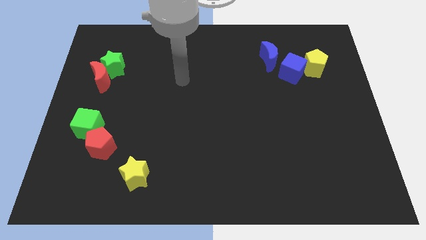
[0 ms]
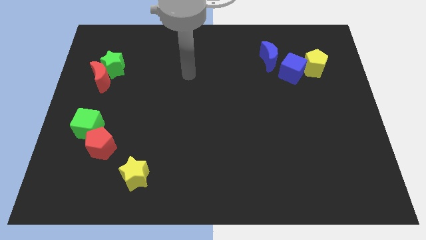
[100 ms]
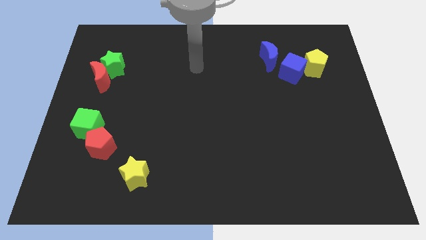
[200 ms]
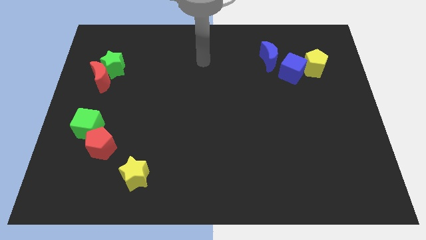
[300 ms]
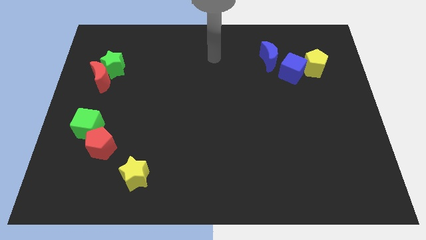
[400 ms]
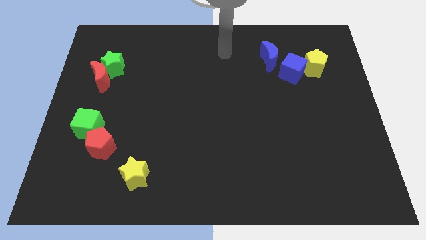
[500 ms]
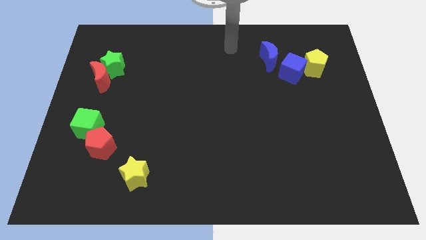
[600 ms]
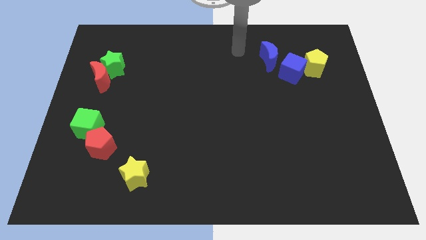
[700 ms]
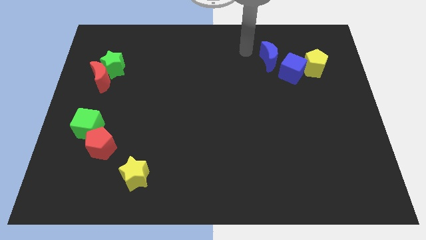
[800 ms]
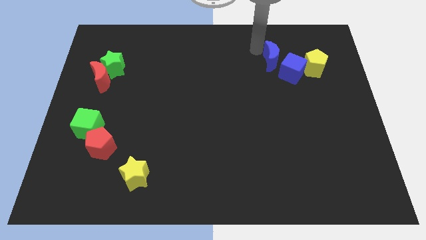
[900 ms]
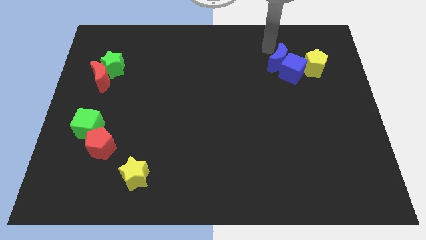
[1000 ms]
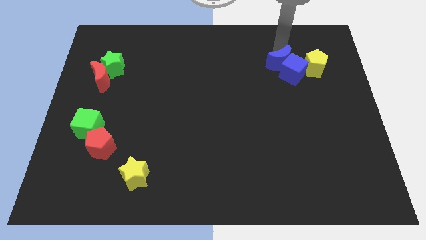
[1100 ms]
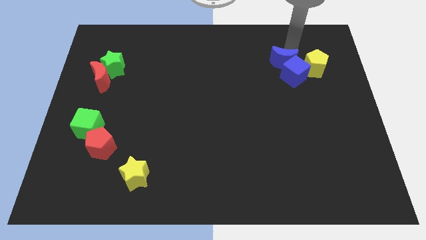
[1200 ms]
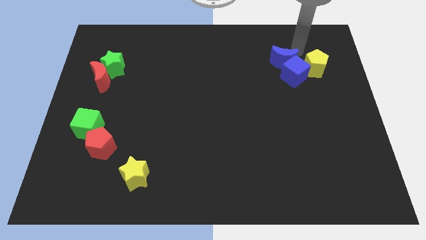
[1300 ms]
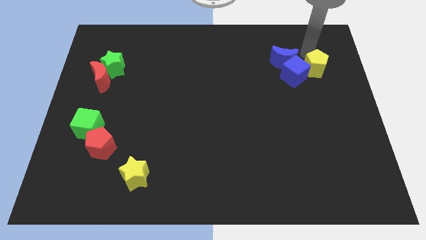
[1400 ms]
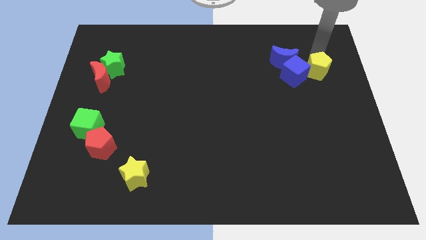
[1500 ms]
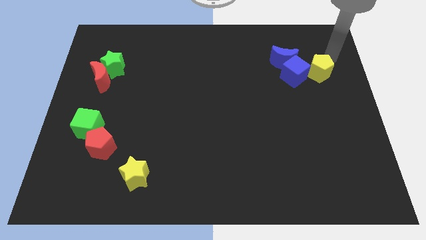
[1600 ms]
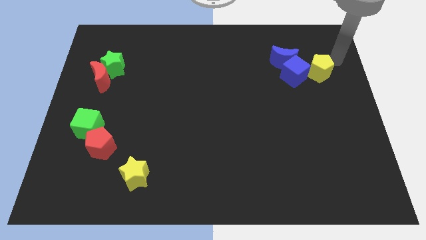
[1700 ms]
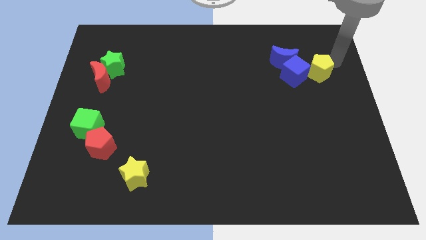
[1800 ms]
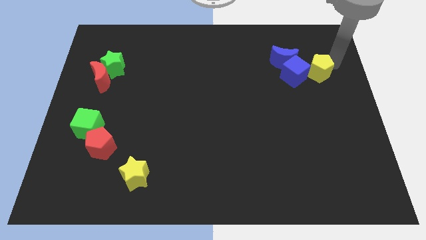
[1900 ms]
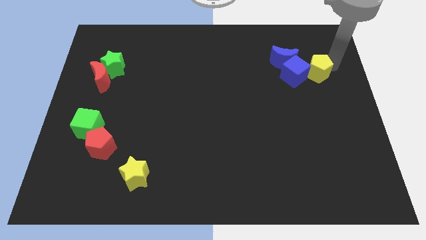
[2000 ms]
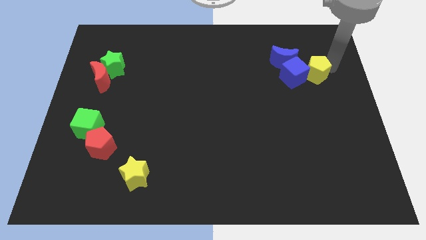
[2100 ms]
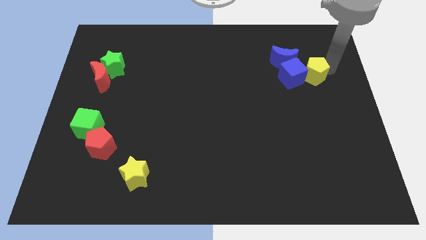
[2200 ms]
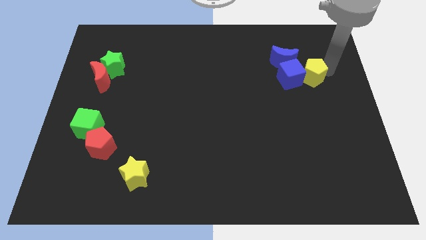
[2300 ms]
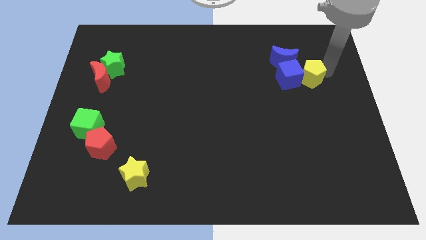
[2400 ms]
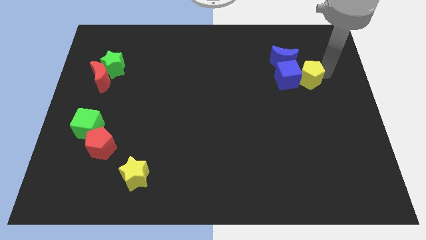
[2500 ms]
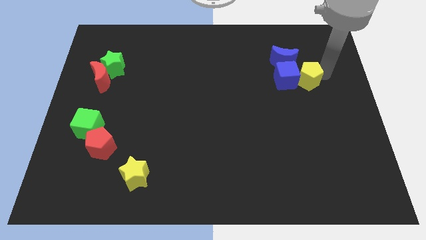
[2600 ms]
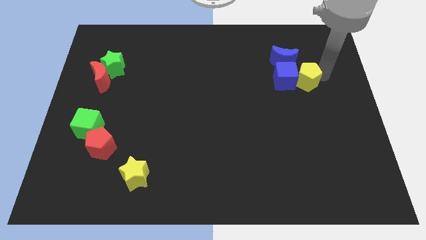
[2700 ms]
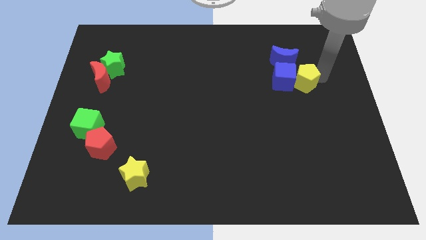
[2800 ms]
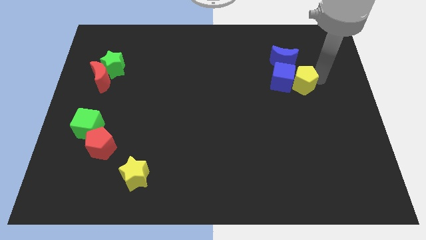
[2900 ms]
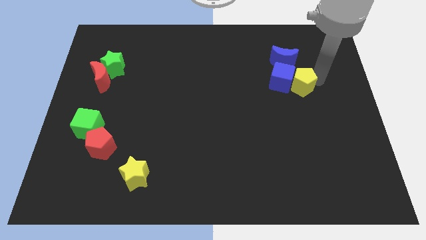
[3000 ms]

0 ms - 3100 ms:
push the yellow pentagon downwards and left slightly

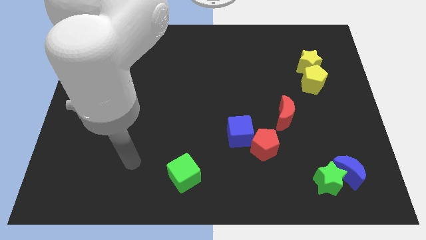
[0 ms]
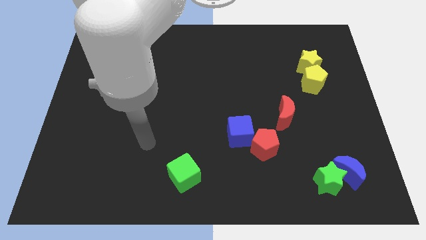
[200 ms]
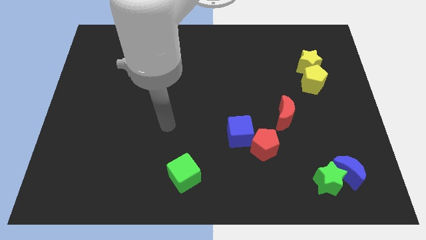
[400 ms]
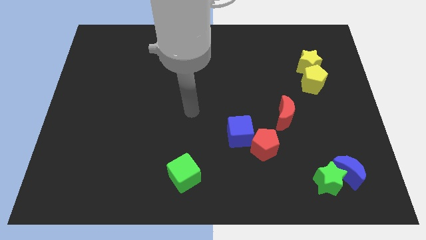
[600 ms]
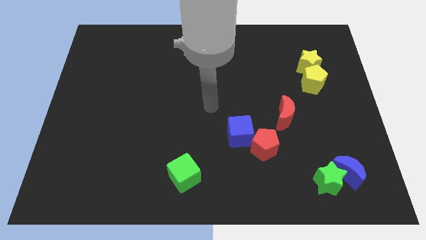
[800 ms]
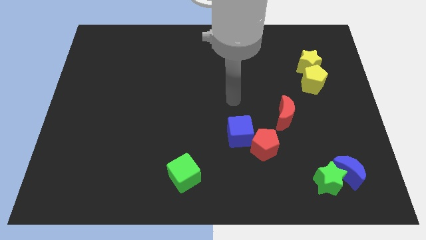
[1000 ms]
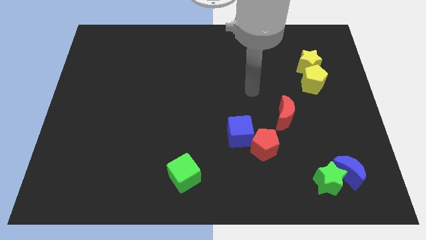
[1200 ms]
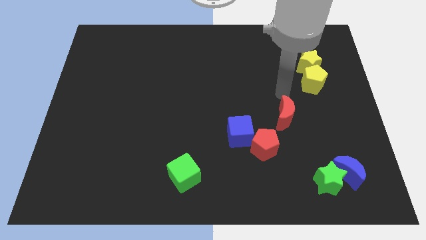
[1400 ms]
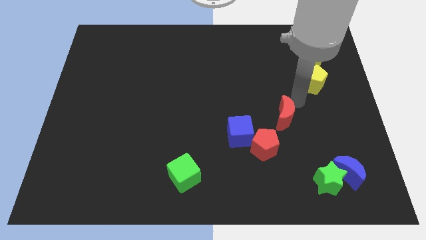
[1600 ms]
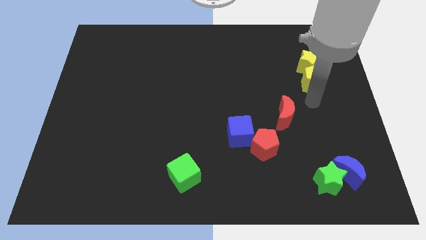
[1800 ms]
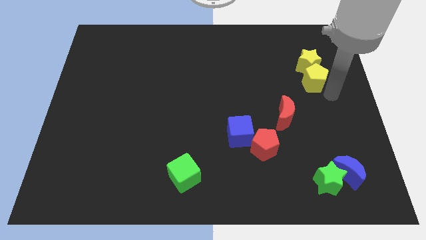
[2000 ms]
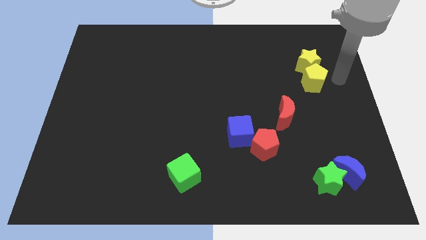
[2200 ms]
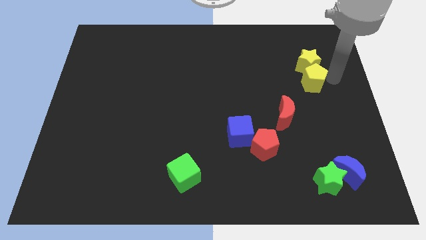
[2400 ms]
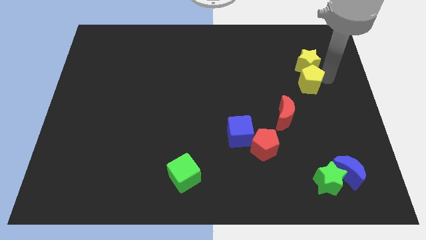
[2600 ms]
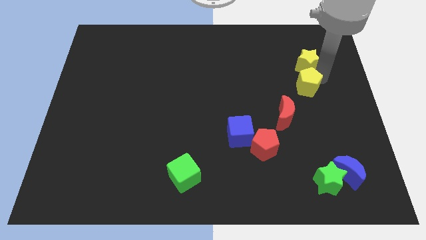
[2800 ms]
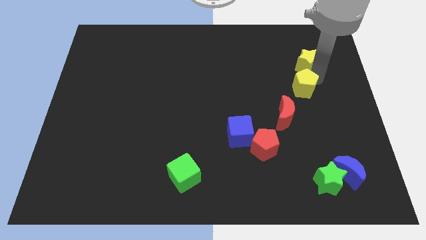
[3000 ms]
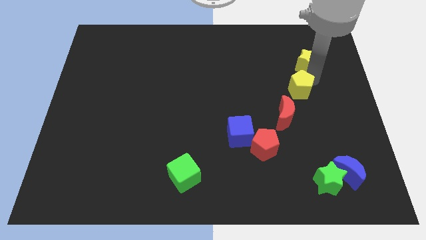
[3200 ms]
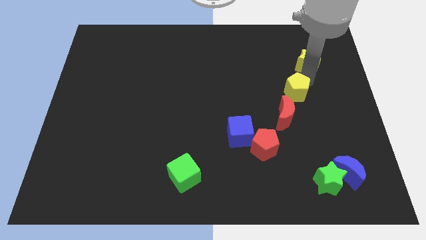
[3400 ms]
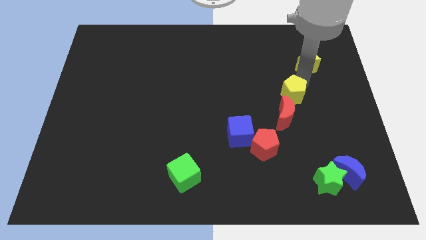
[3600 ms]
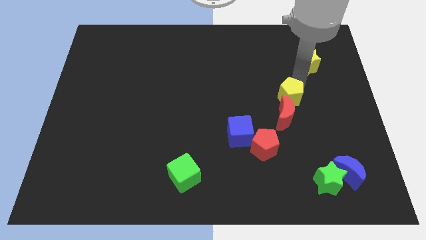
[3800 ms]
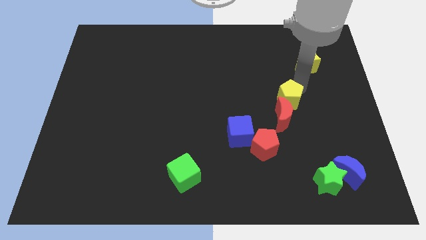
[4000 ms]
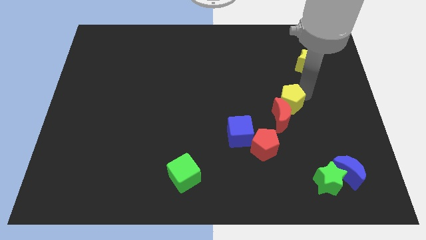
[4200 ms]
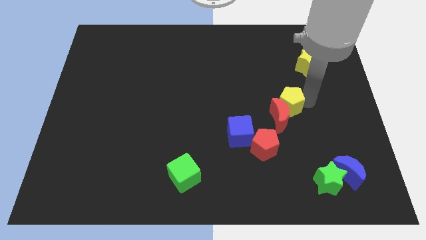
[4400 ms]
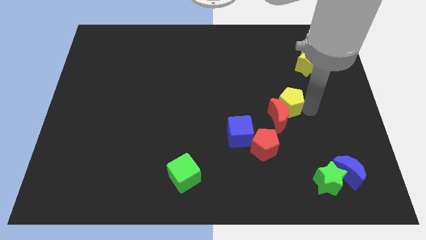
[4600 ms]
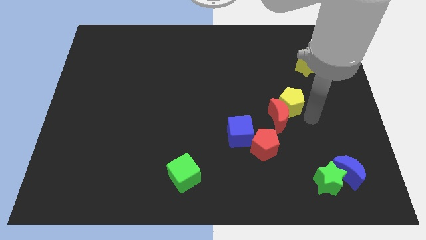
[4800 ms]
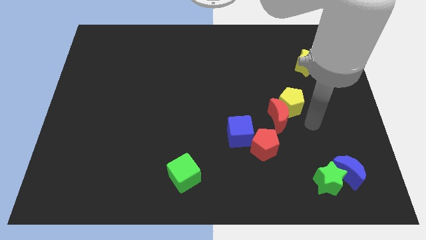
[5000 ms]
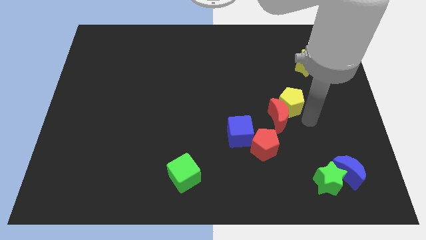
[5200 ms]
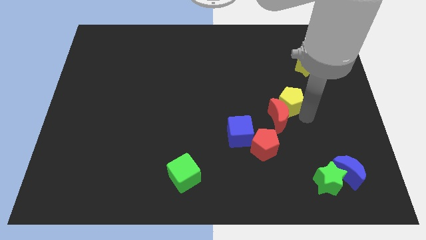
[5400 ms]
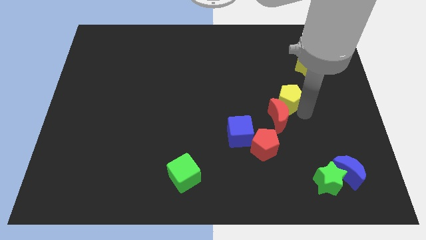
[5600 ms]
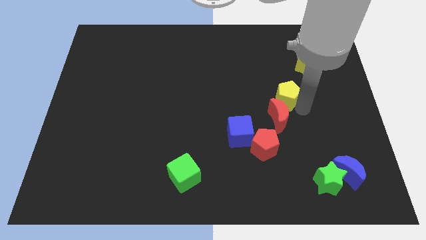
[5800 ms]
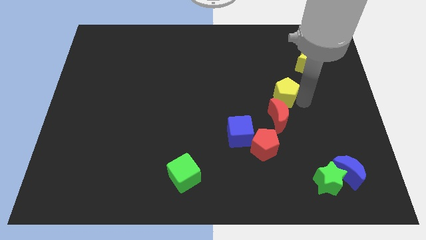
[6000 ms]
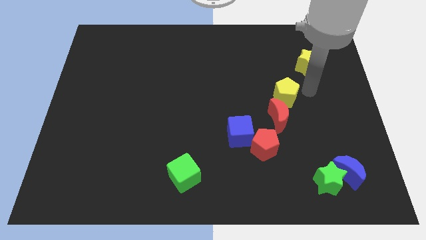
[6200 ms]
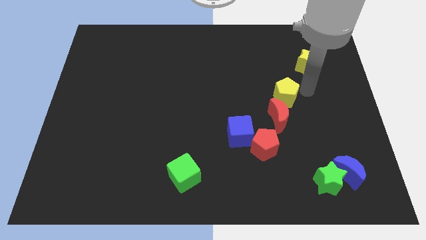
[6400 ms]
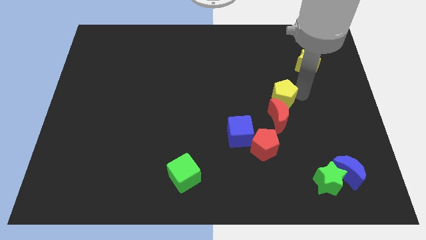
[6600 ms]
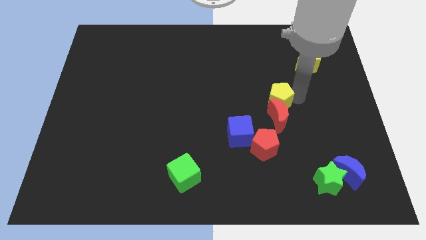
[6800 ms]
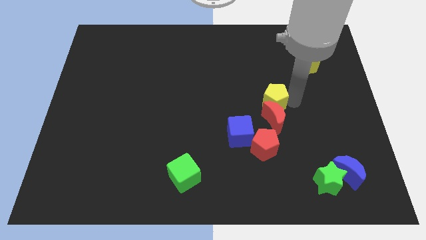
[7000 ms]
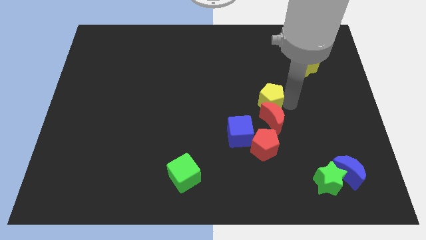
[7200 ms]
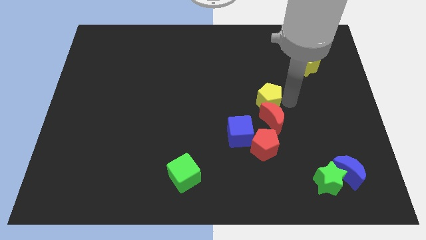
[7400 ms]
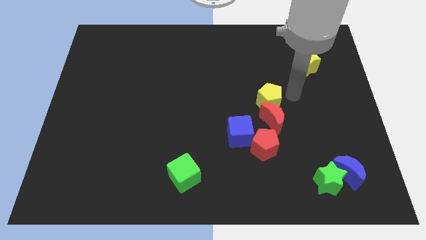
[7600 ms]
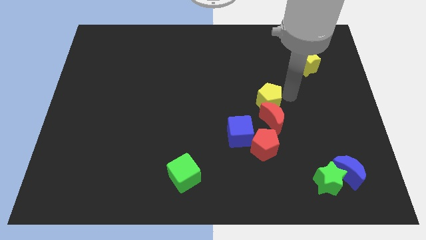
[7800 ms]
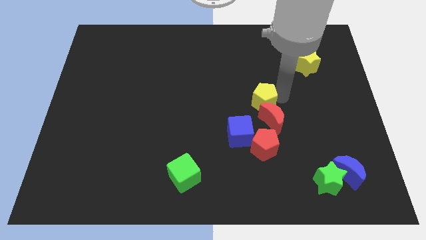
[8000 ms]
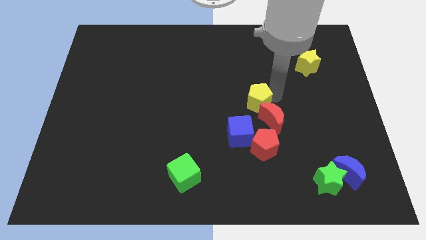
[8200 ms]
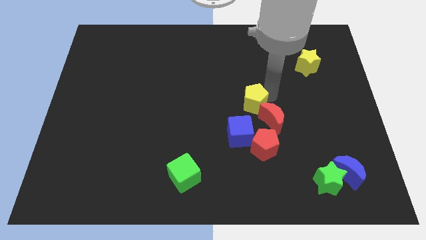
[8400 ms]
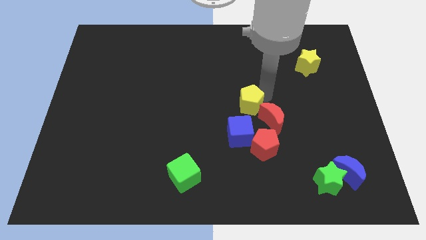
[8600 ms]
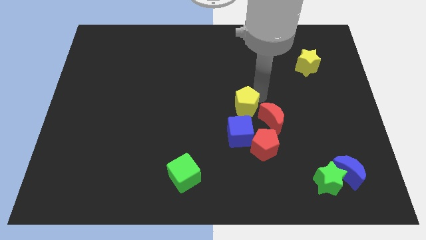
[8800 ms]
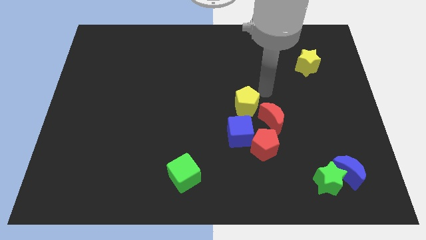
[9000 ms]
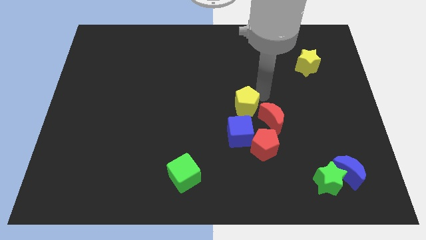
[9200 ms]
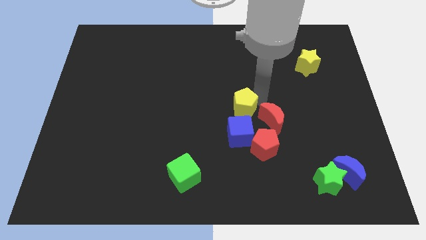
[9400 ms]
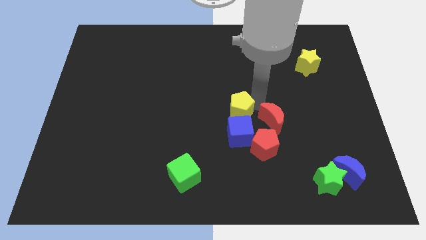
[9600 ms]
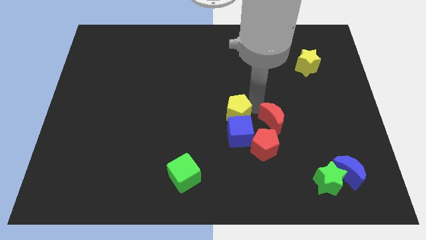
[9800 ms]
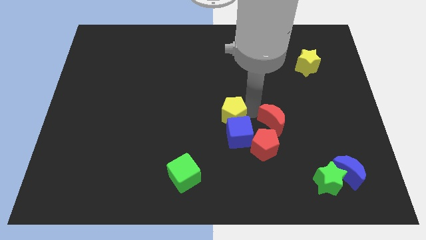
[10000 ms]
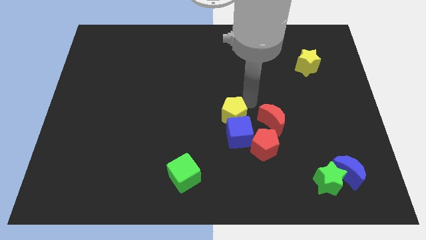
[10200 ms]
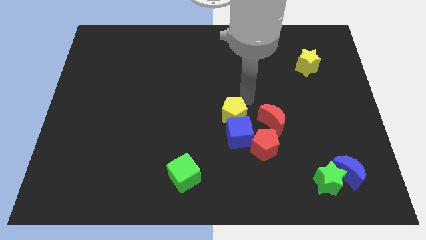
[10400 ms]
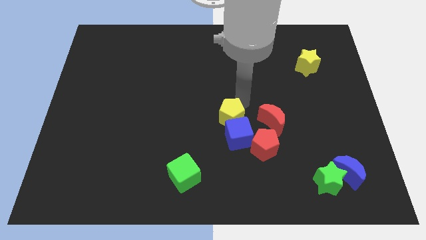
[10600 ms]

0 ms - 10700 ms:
push the yellow pentagon downwards and to the left
